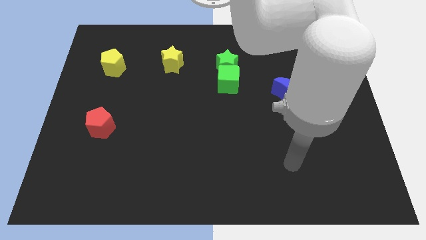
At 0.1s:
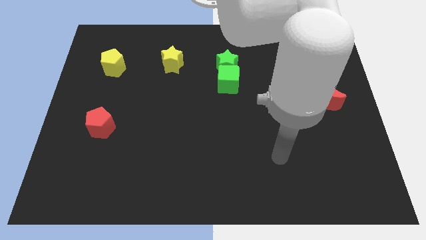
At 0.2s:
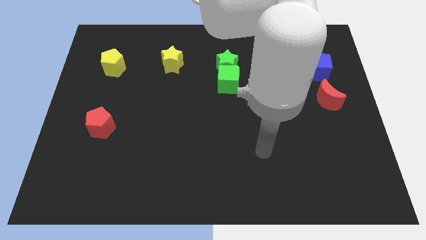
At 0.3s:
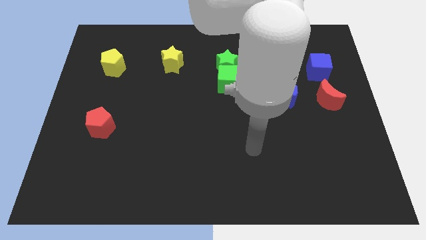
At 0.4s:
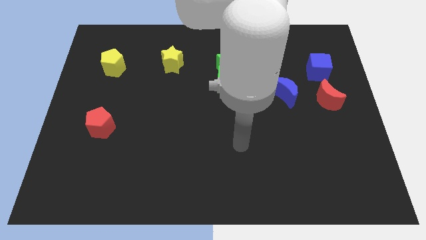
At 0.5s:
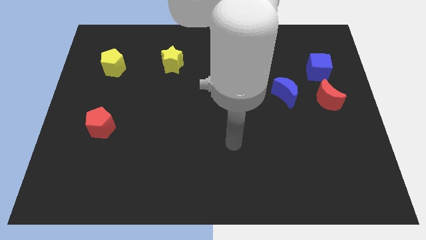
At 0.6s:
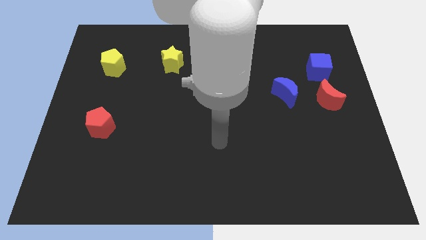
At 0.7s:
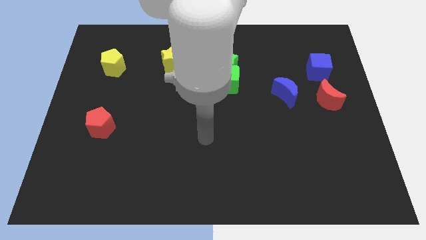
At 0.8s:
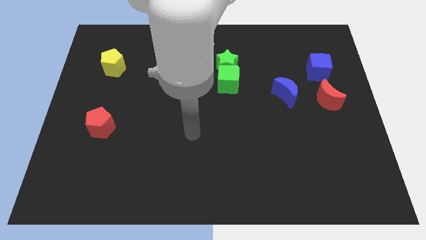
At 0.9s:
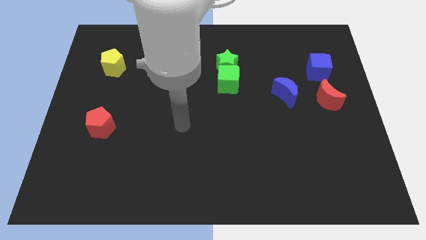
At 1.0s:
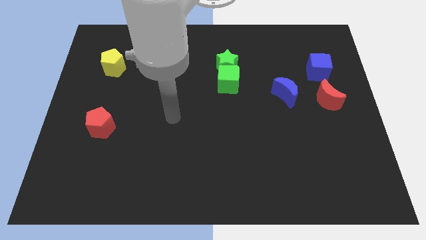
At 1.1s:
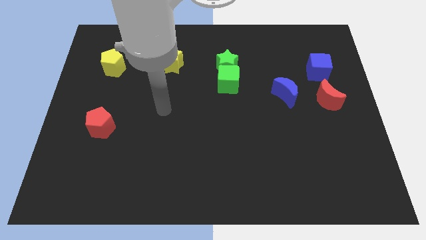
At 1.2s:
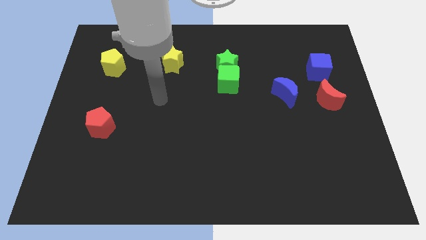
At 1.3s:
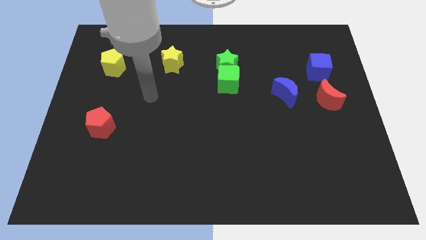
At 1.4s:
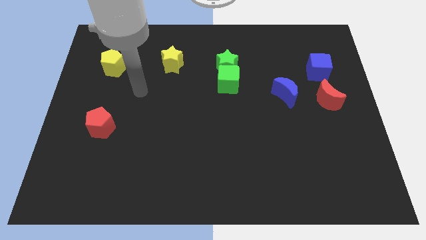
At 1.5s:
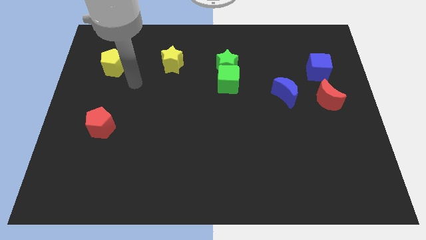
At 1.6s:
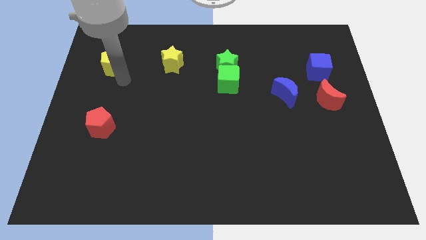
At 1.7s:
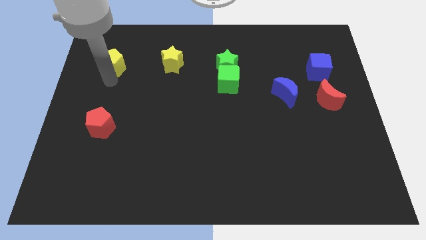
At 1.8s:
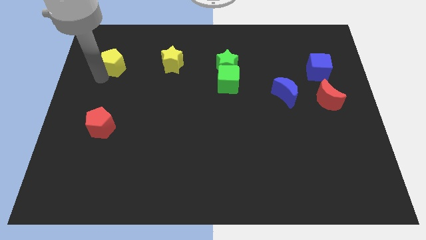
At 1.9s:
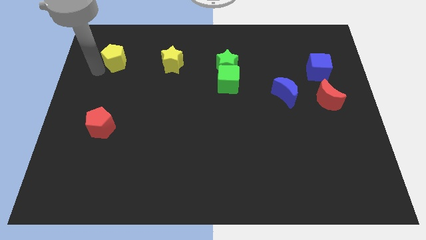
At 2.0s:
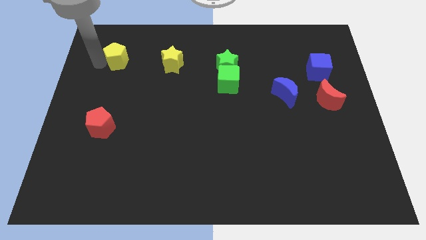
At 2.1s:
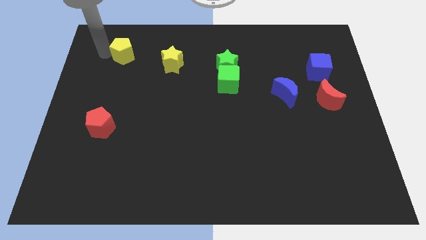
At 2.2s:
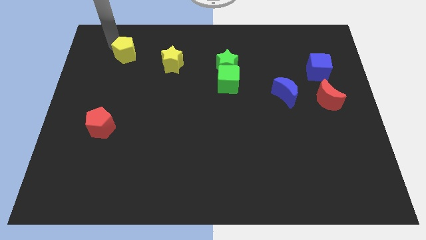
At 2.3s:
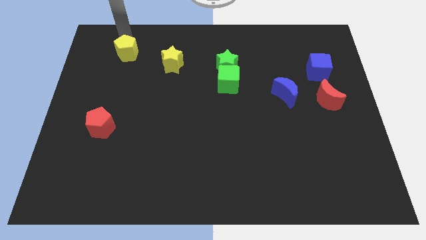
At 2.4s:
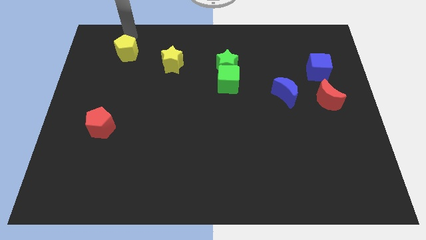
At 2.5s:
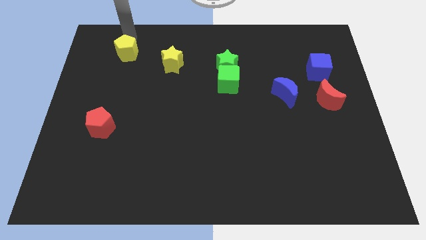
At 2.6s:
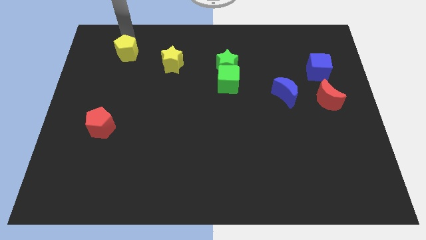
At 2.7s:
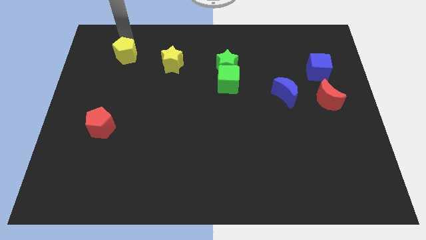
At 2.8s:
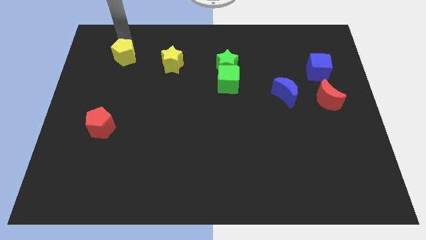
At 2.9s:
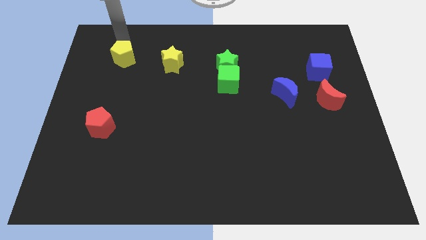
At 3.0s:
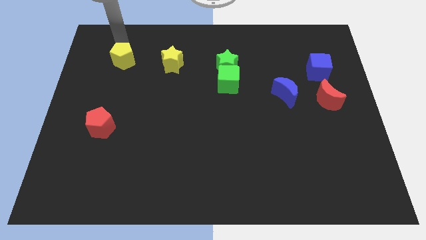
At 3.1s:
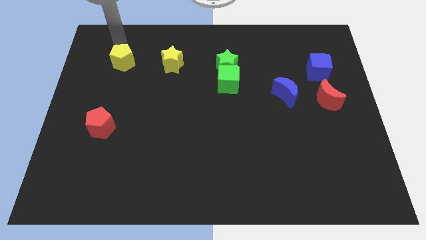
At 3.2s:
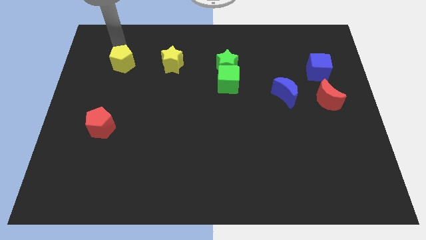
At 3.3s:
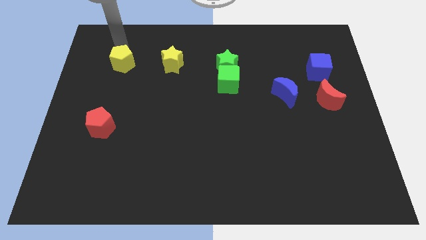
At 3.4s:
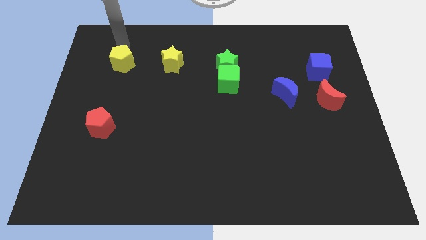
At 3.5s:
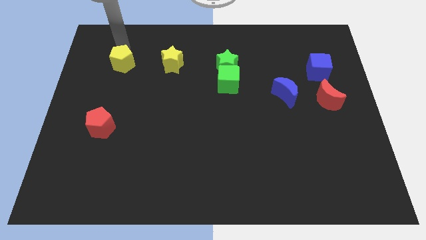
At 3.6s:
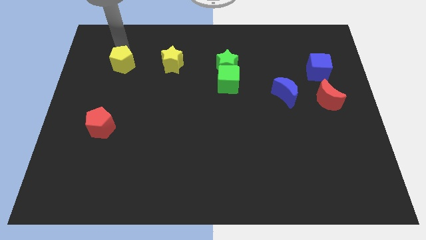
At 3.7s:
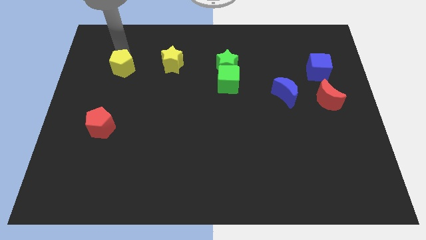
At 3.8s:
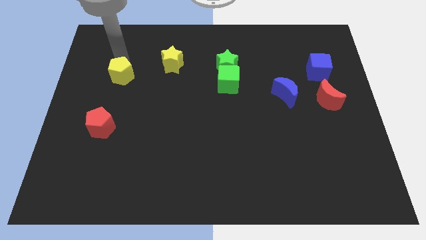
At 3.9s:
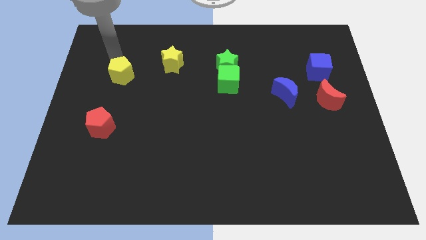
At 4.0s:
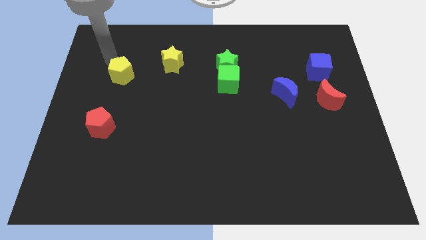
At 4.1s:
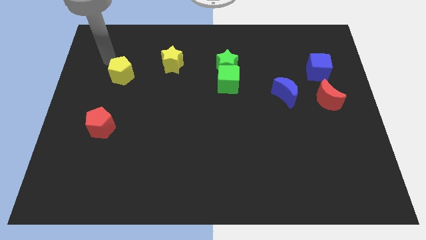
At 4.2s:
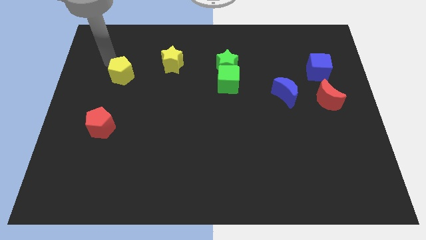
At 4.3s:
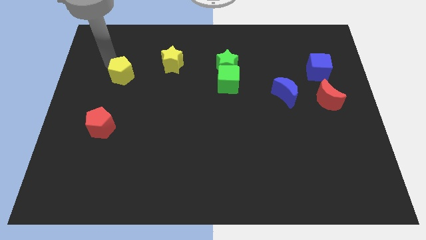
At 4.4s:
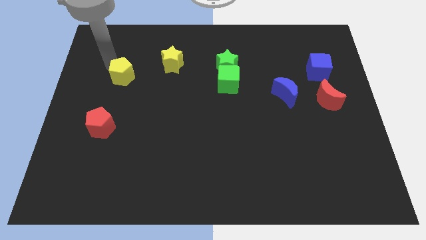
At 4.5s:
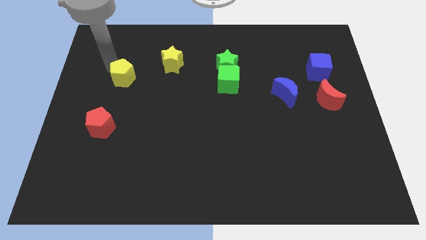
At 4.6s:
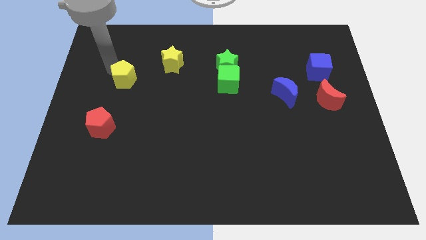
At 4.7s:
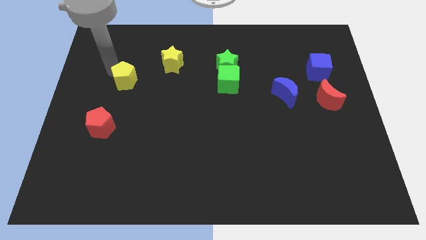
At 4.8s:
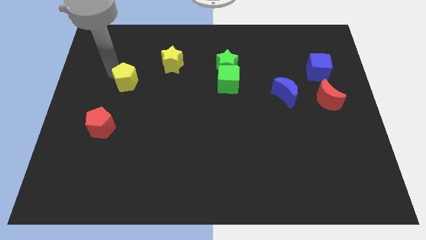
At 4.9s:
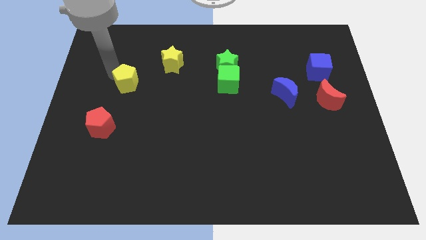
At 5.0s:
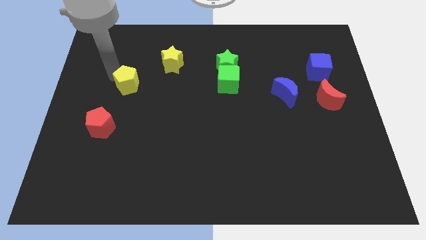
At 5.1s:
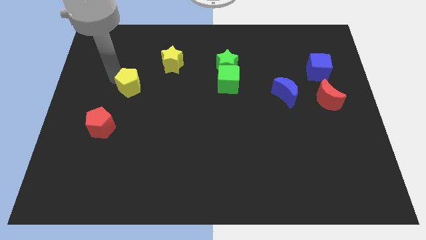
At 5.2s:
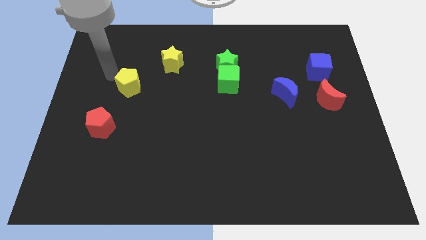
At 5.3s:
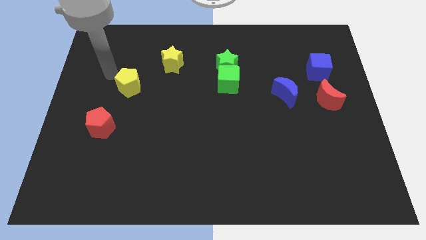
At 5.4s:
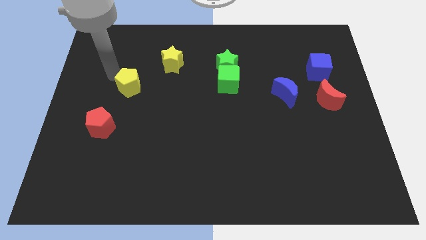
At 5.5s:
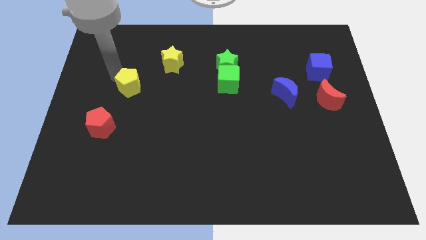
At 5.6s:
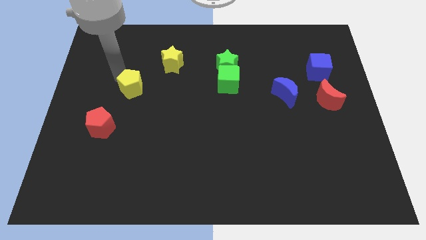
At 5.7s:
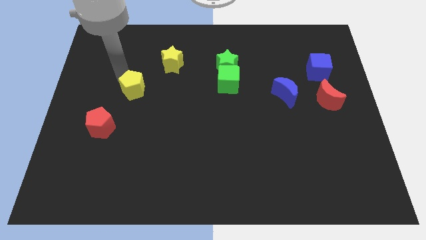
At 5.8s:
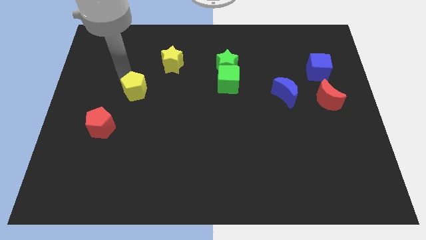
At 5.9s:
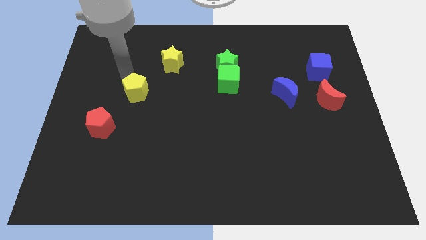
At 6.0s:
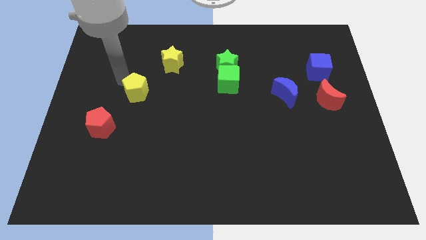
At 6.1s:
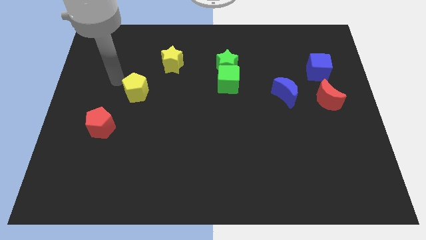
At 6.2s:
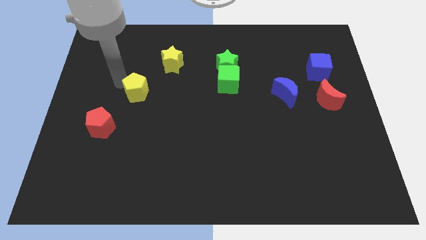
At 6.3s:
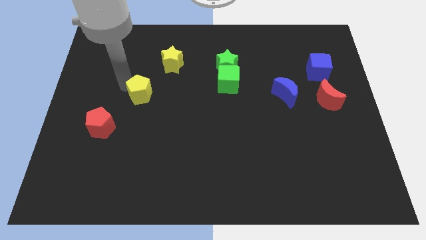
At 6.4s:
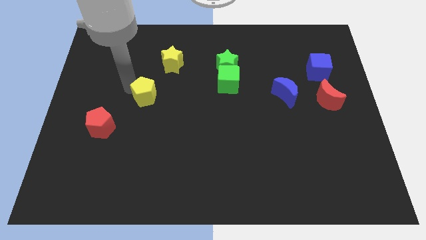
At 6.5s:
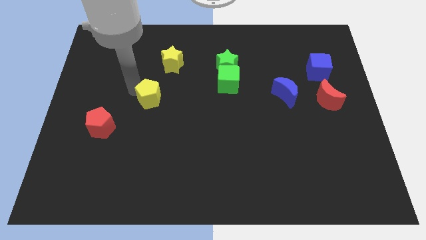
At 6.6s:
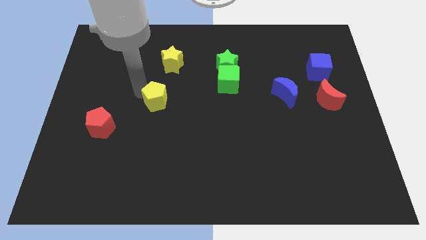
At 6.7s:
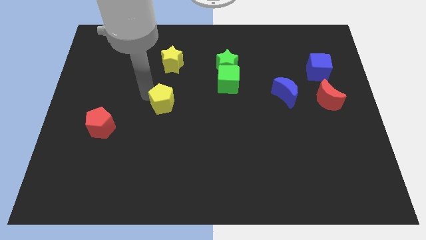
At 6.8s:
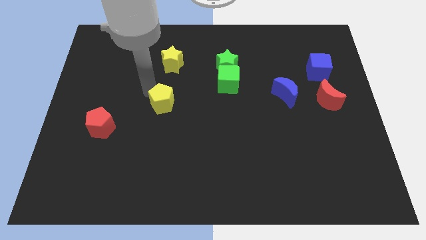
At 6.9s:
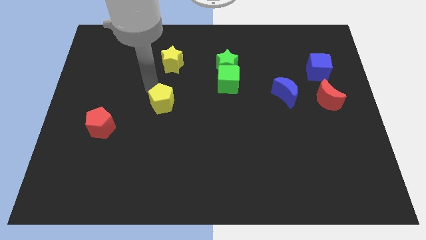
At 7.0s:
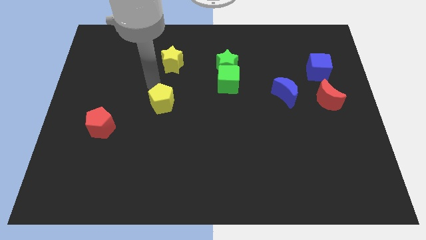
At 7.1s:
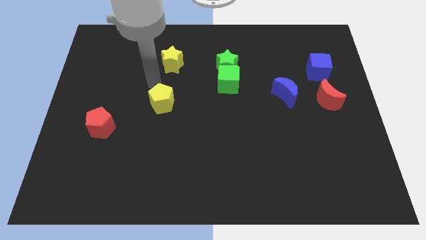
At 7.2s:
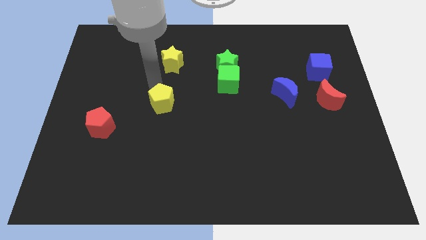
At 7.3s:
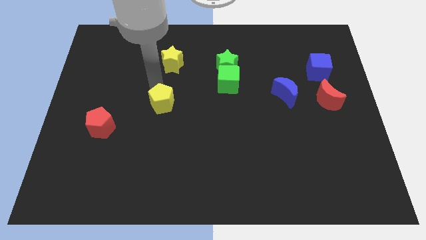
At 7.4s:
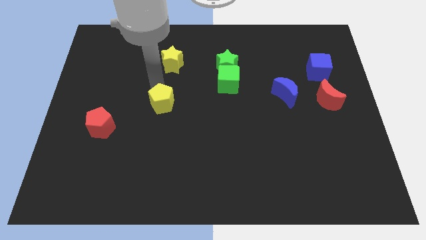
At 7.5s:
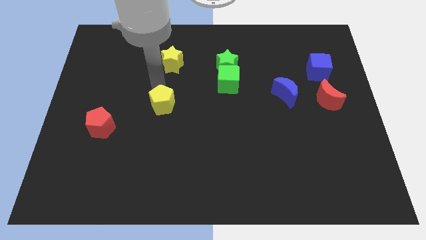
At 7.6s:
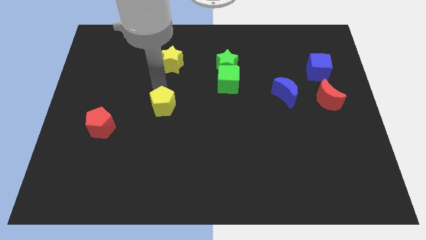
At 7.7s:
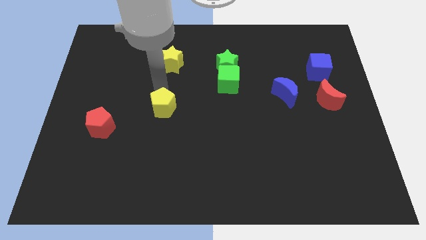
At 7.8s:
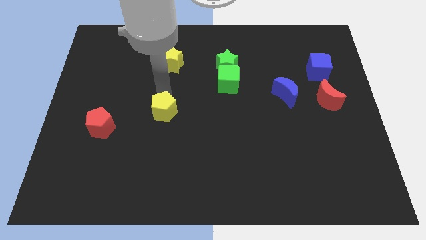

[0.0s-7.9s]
move the yellow pentagon down and right

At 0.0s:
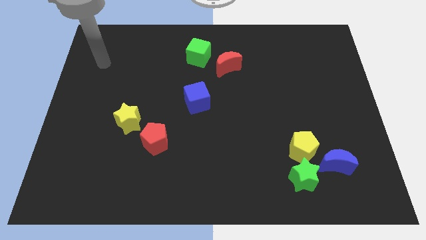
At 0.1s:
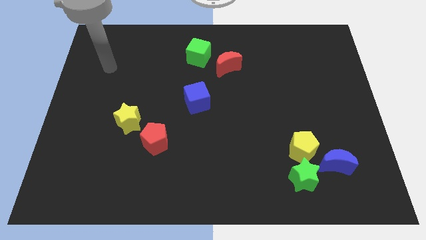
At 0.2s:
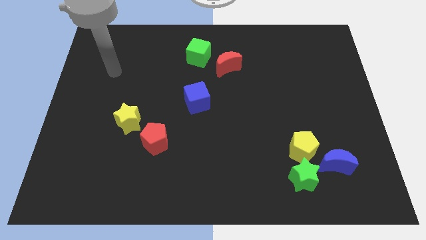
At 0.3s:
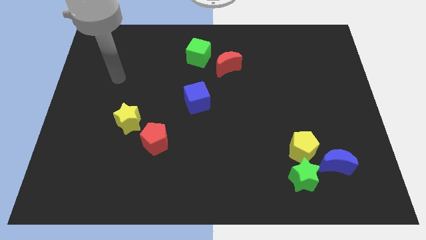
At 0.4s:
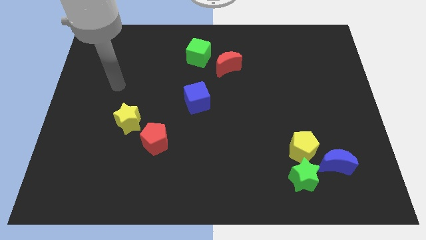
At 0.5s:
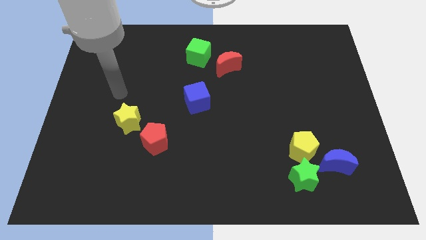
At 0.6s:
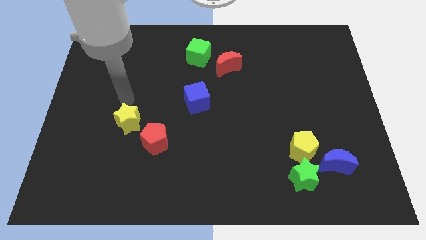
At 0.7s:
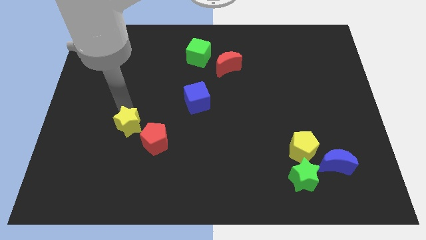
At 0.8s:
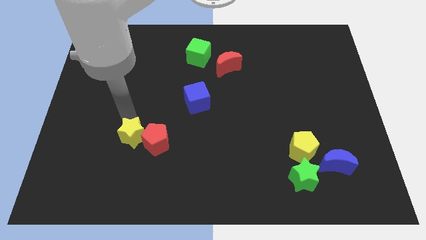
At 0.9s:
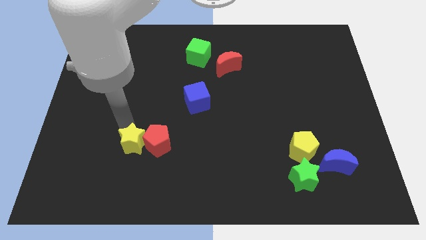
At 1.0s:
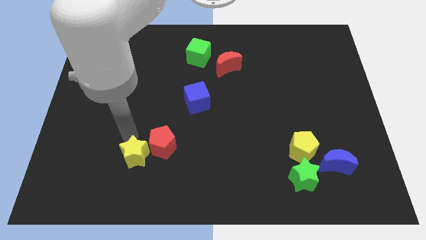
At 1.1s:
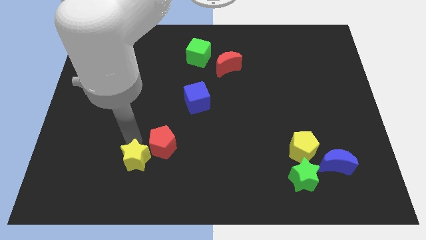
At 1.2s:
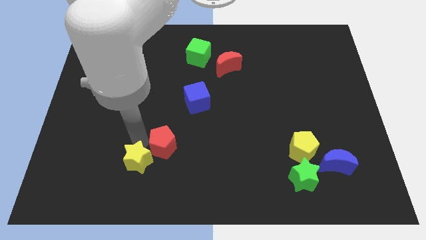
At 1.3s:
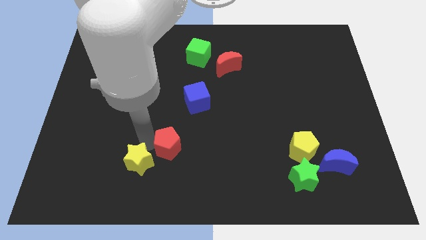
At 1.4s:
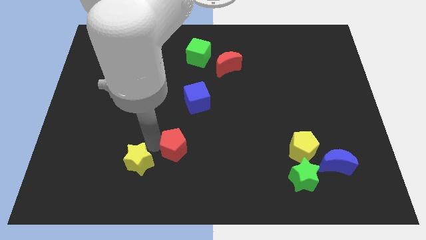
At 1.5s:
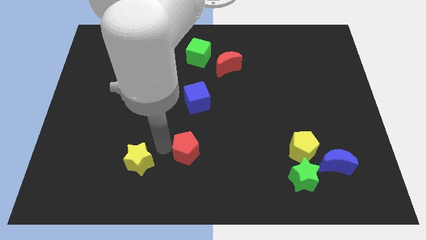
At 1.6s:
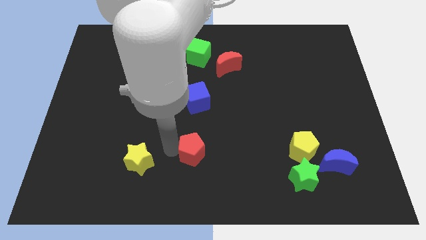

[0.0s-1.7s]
push the red pentagon slightly right
